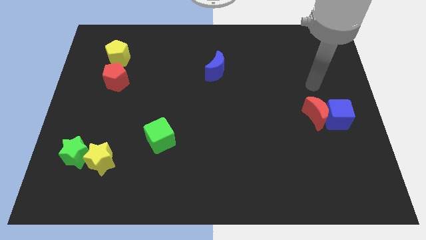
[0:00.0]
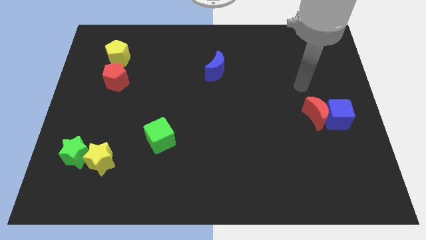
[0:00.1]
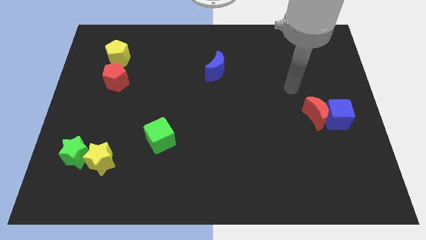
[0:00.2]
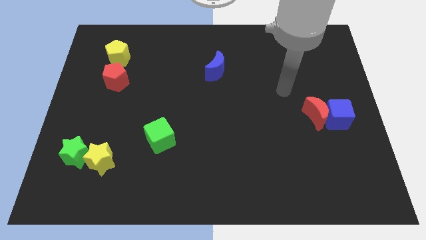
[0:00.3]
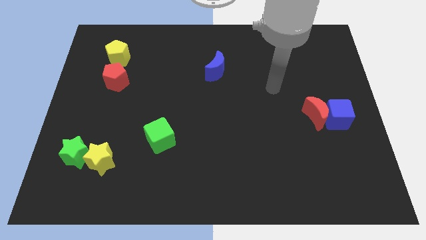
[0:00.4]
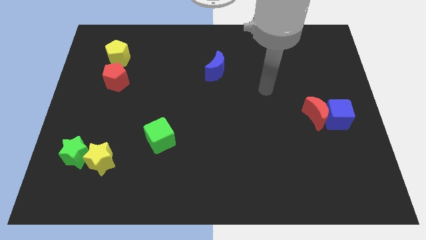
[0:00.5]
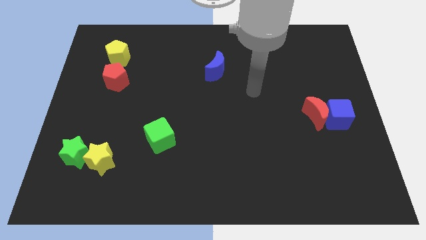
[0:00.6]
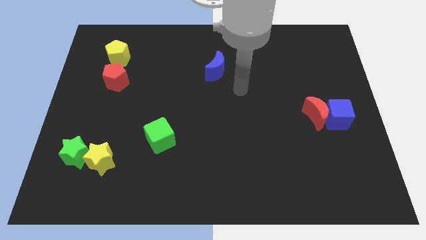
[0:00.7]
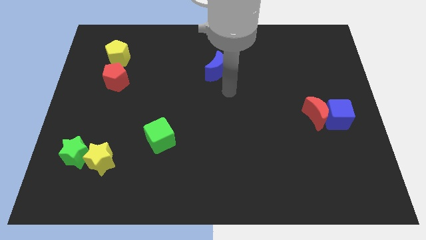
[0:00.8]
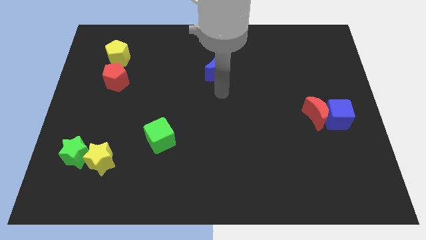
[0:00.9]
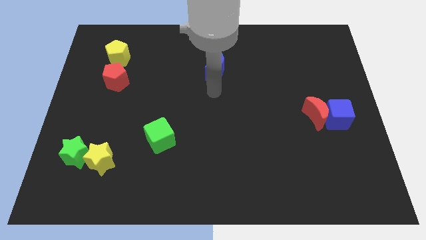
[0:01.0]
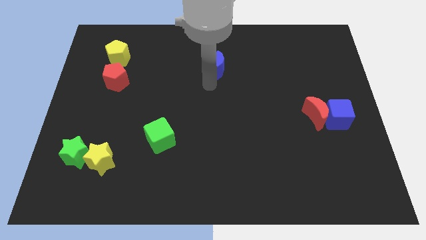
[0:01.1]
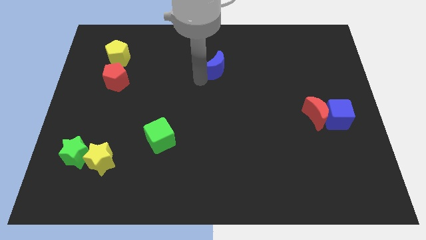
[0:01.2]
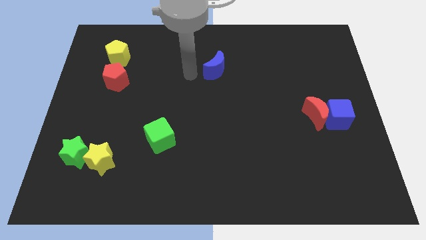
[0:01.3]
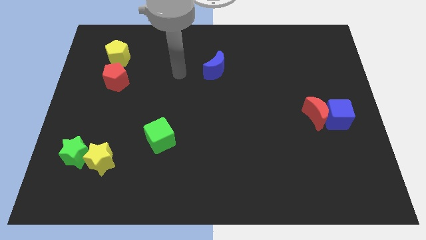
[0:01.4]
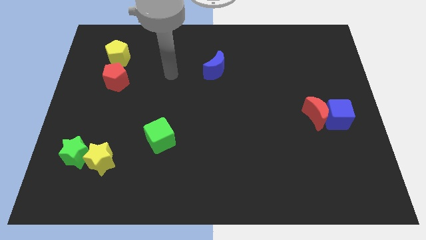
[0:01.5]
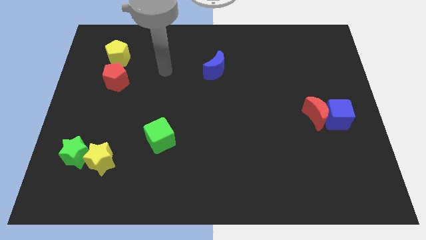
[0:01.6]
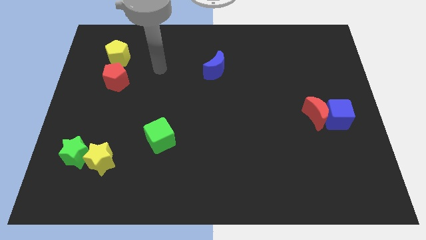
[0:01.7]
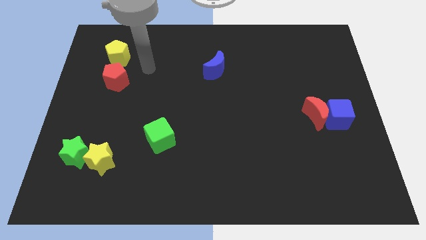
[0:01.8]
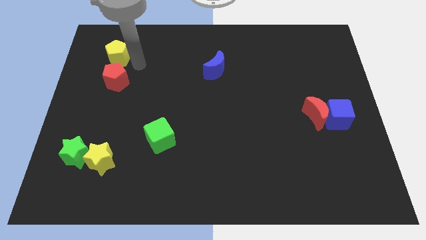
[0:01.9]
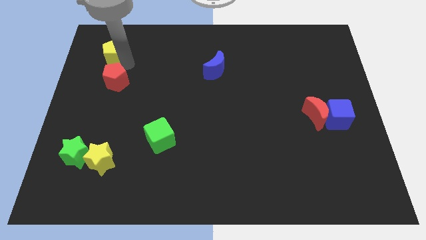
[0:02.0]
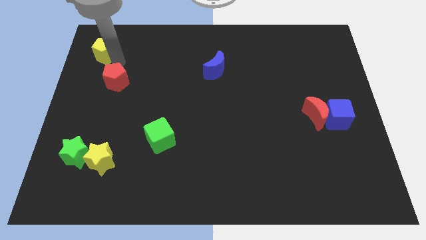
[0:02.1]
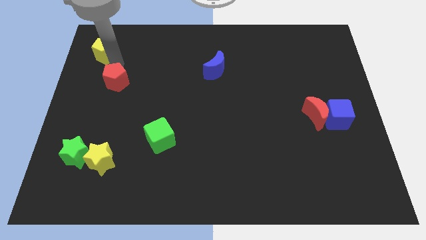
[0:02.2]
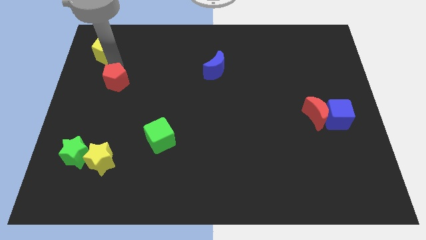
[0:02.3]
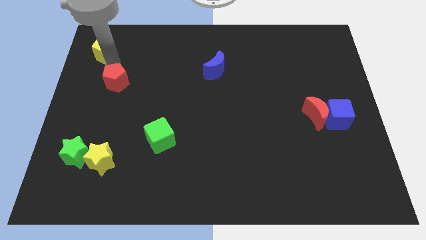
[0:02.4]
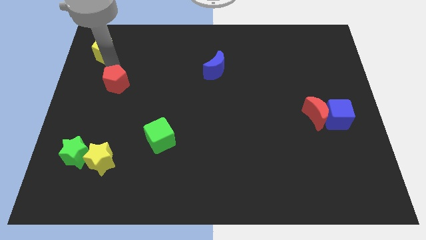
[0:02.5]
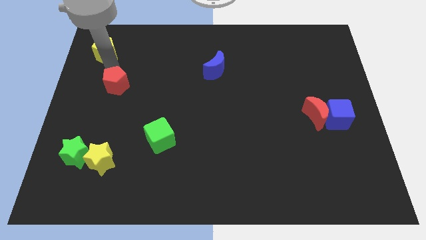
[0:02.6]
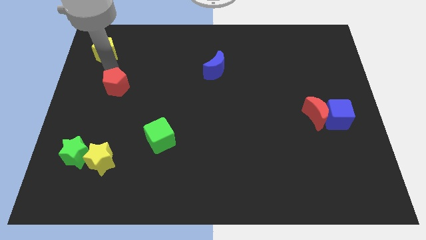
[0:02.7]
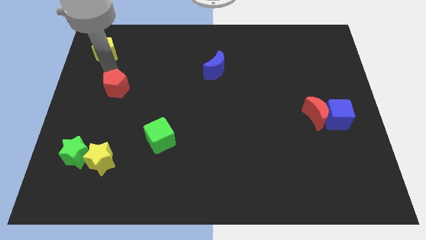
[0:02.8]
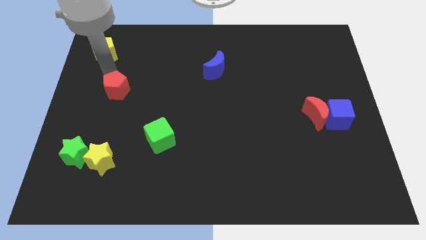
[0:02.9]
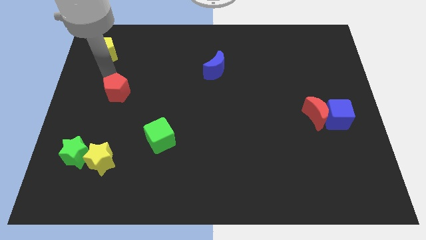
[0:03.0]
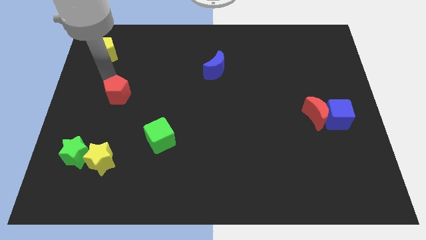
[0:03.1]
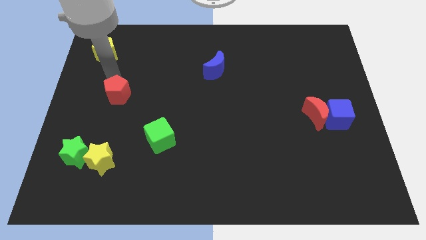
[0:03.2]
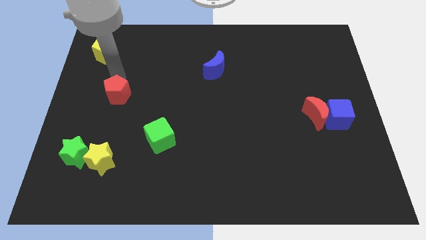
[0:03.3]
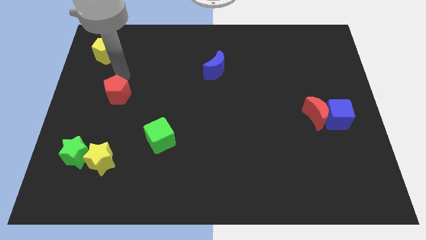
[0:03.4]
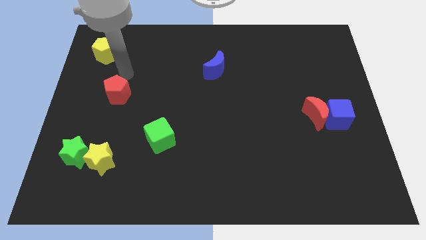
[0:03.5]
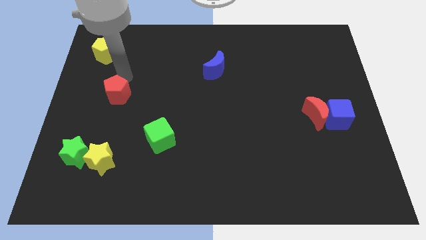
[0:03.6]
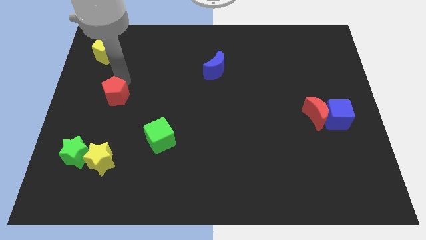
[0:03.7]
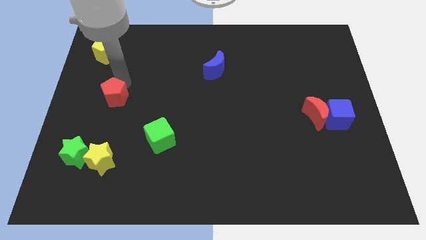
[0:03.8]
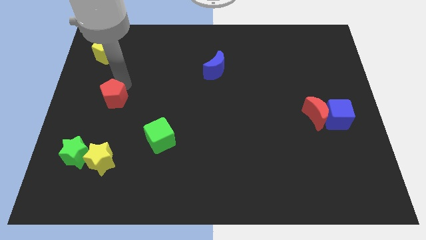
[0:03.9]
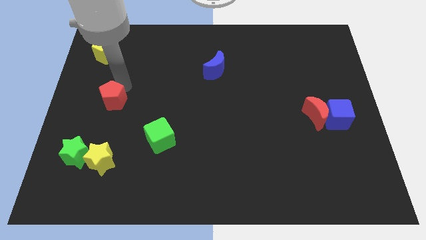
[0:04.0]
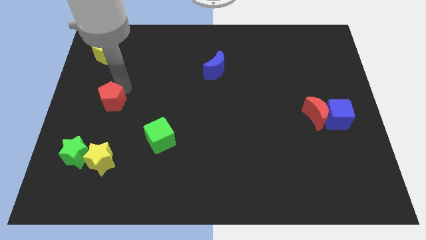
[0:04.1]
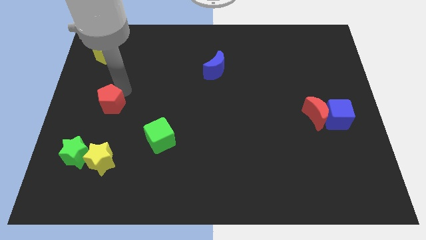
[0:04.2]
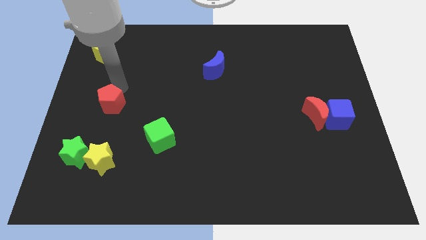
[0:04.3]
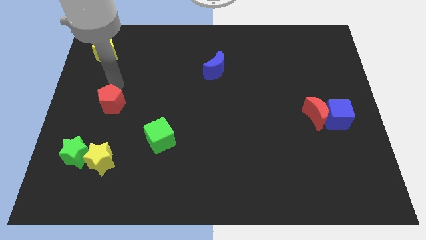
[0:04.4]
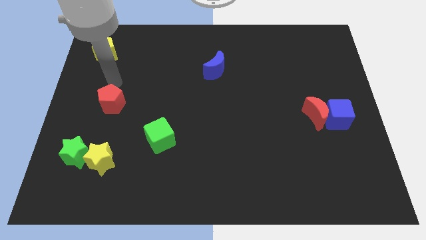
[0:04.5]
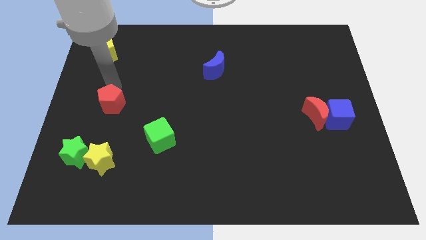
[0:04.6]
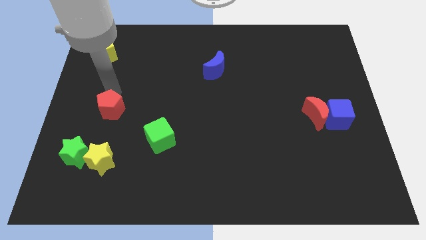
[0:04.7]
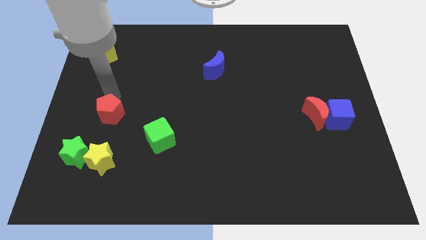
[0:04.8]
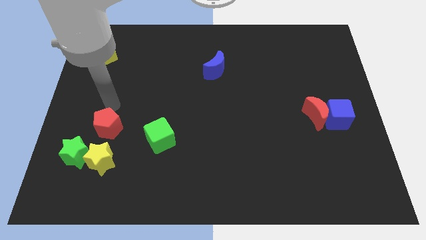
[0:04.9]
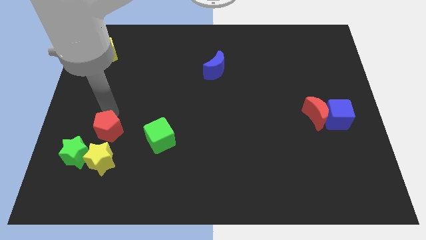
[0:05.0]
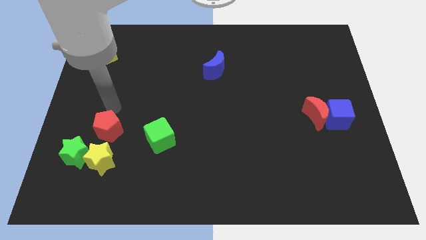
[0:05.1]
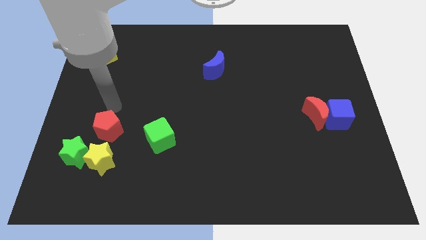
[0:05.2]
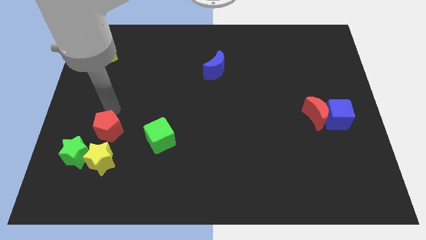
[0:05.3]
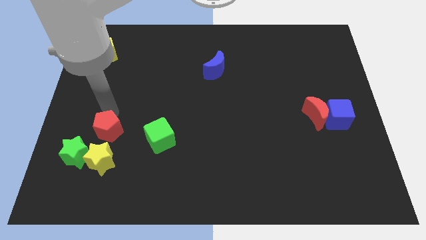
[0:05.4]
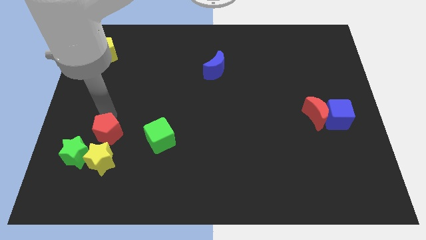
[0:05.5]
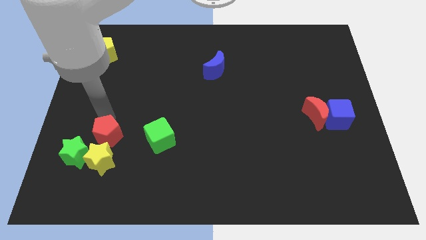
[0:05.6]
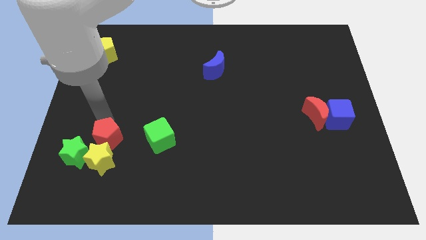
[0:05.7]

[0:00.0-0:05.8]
put the red pentagon towards the yellow star

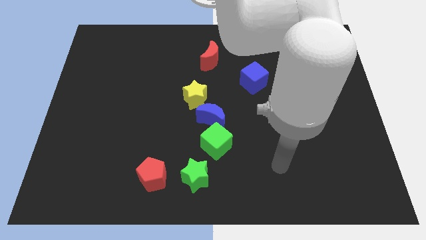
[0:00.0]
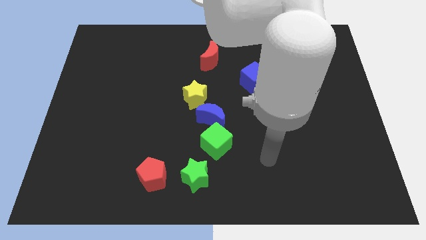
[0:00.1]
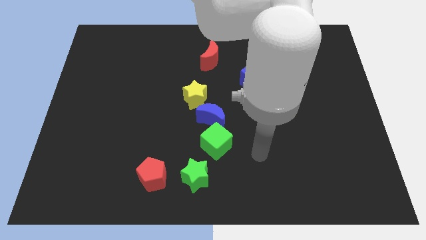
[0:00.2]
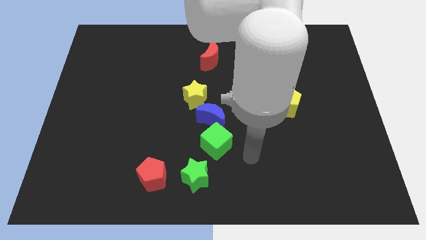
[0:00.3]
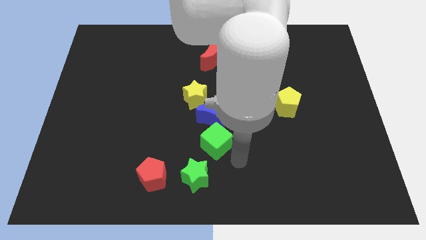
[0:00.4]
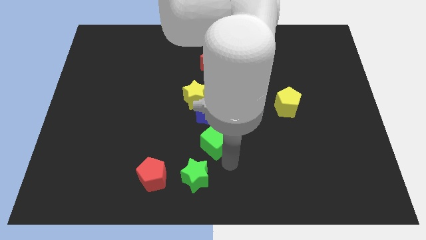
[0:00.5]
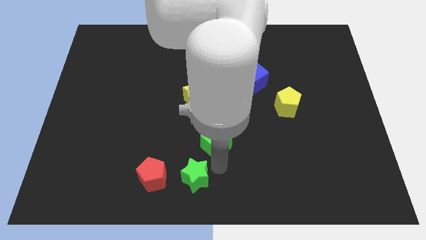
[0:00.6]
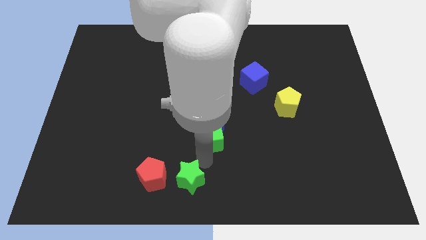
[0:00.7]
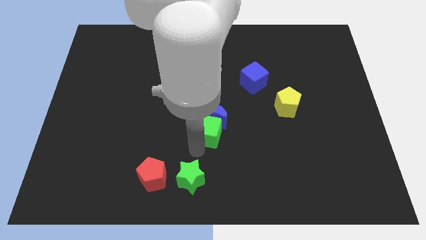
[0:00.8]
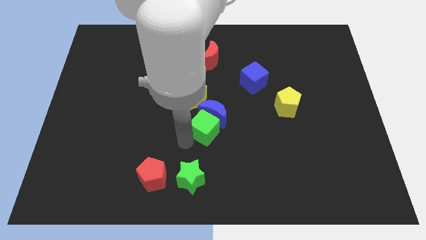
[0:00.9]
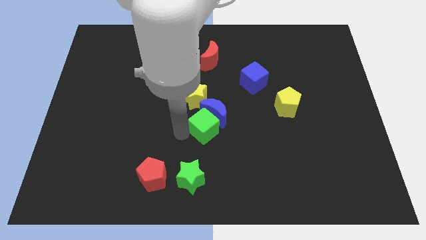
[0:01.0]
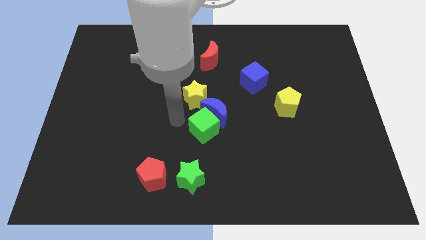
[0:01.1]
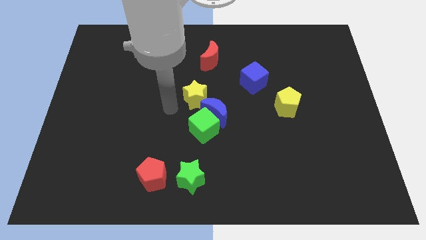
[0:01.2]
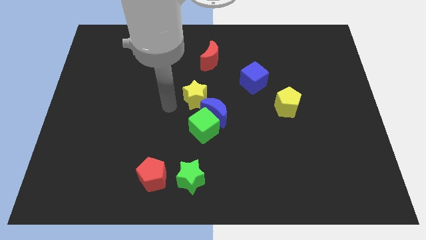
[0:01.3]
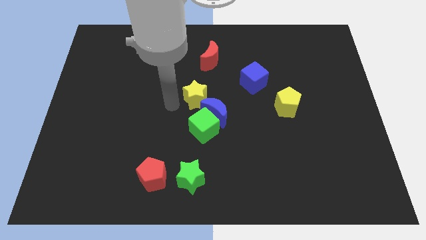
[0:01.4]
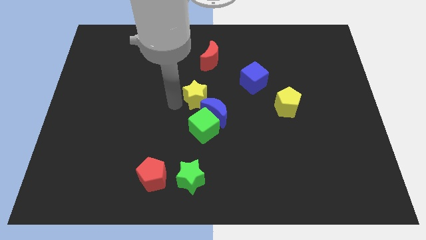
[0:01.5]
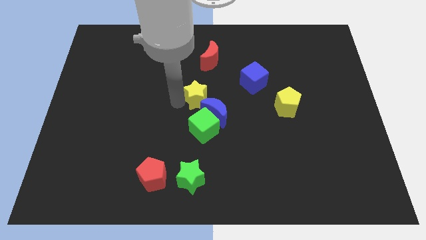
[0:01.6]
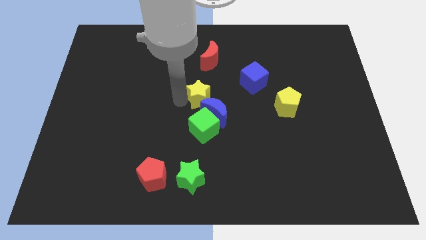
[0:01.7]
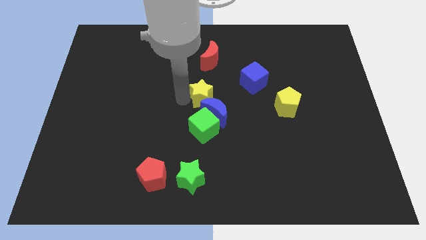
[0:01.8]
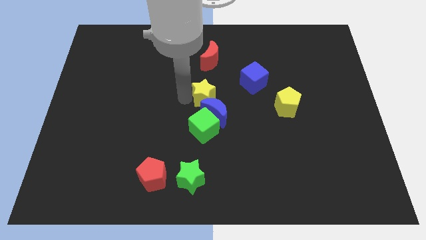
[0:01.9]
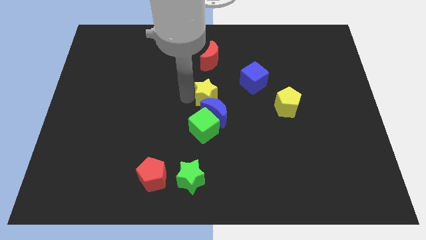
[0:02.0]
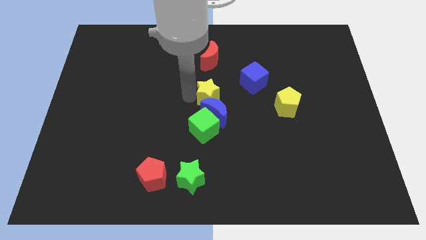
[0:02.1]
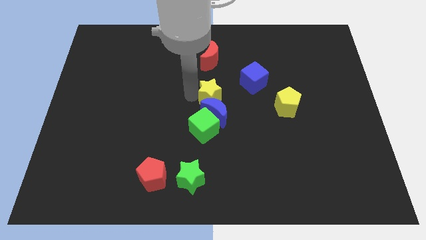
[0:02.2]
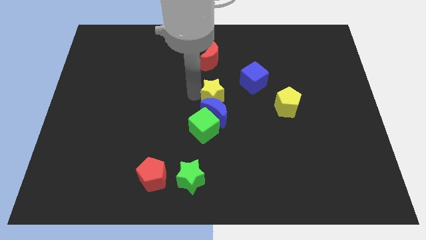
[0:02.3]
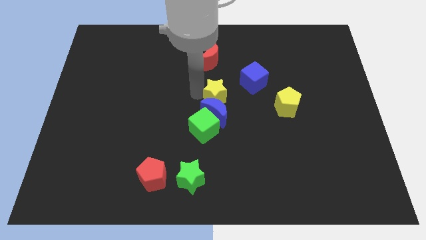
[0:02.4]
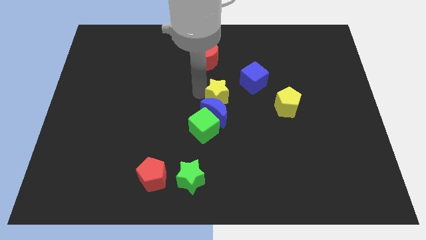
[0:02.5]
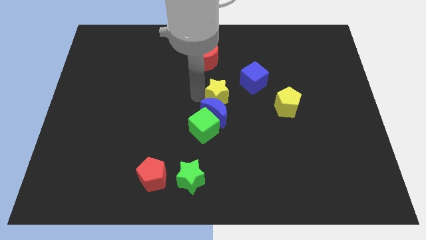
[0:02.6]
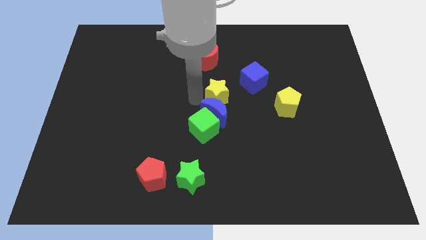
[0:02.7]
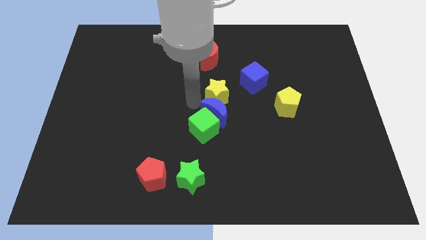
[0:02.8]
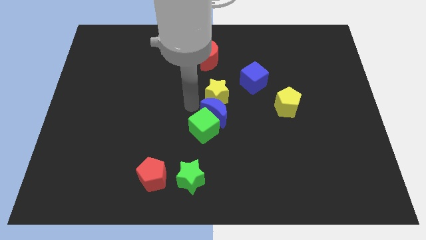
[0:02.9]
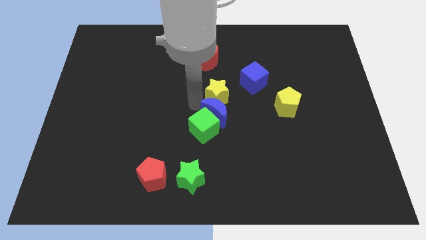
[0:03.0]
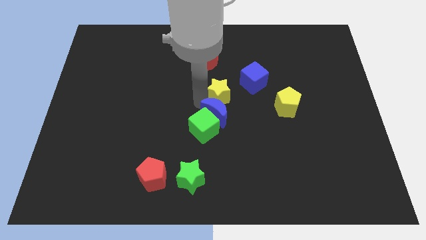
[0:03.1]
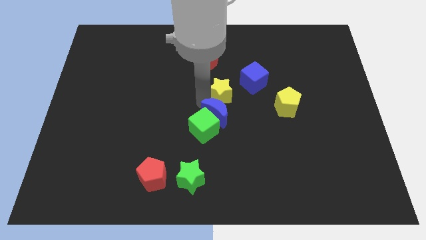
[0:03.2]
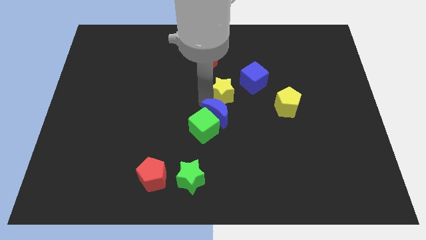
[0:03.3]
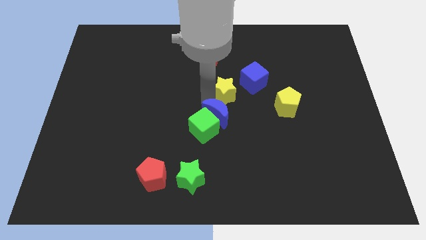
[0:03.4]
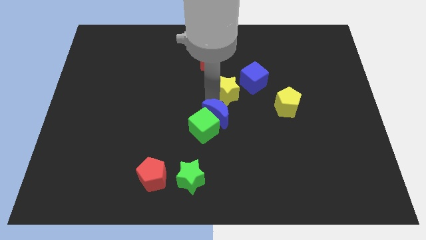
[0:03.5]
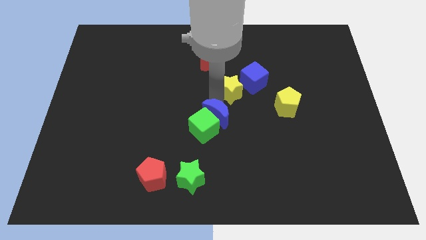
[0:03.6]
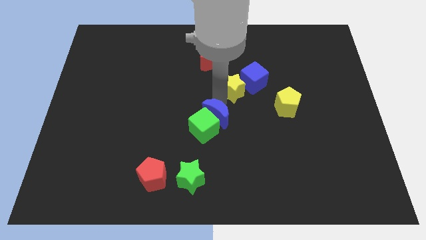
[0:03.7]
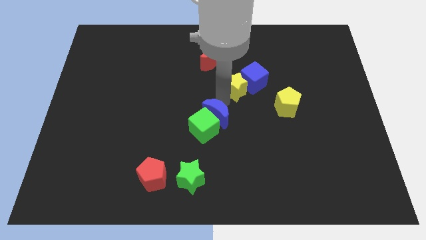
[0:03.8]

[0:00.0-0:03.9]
slide the yellow star next to the blue cube
